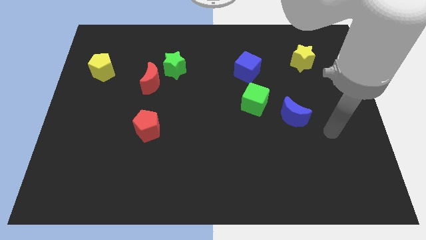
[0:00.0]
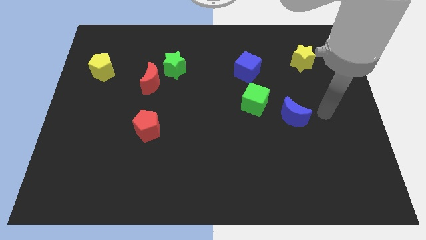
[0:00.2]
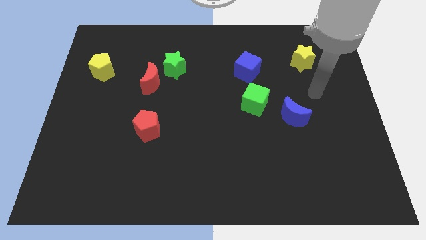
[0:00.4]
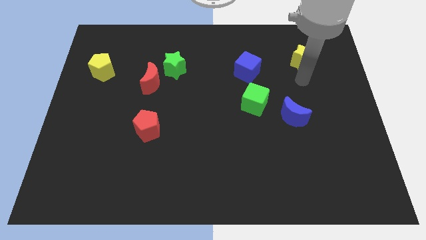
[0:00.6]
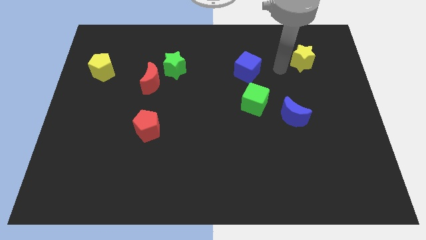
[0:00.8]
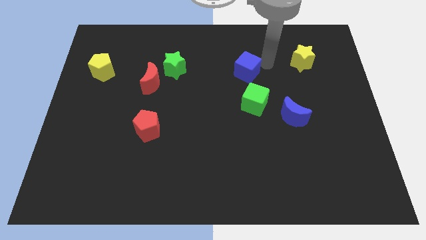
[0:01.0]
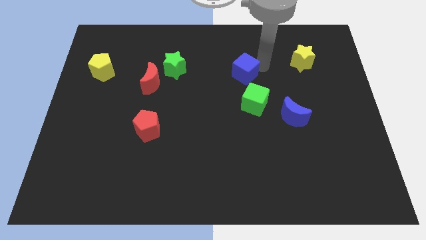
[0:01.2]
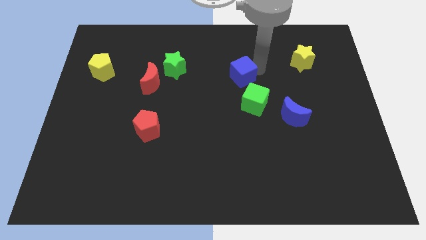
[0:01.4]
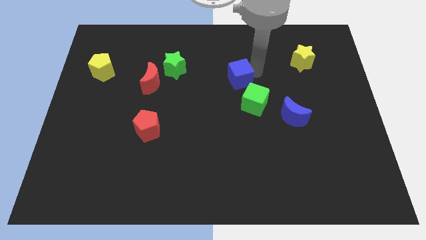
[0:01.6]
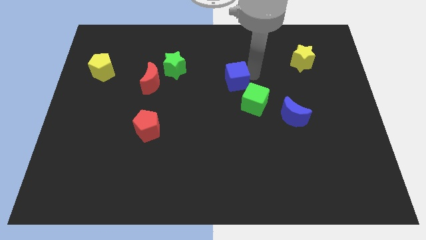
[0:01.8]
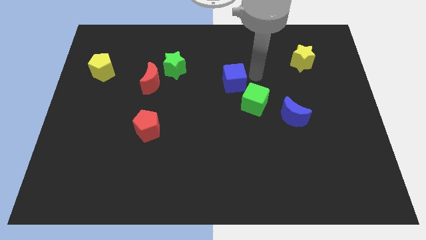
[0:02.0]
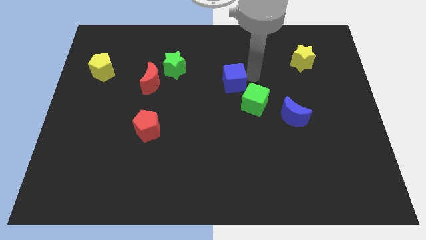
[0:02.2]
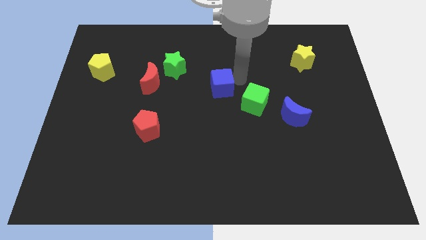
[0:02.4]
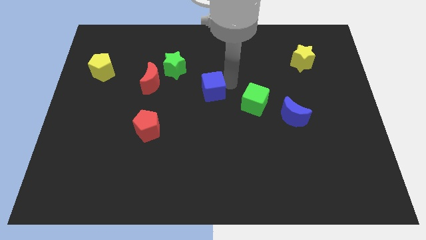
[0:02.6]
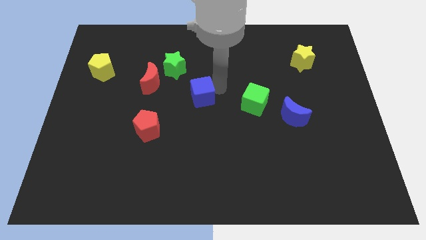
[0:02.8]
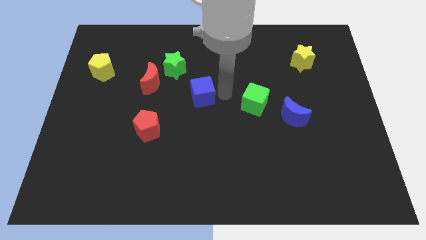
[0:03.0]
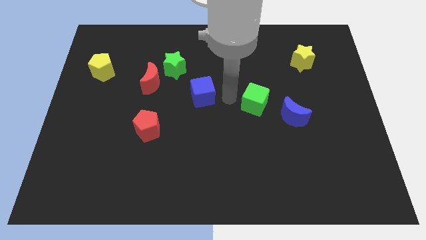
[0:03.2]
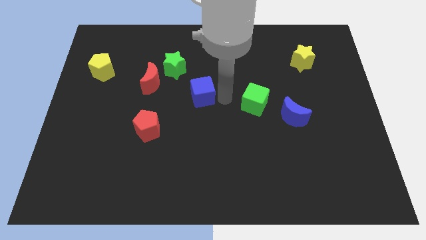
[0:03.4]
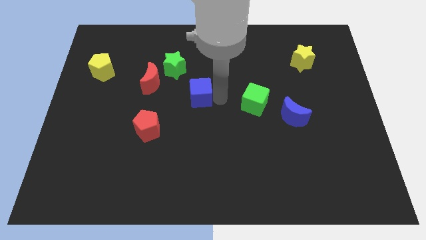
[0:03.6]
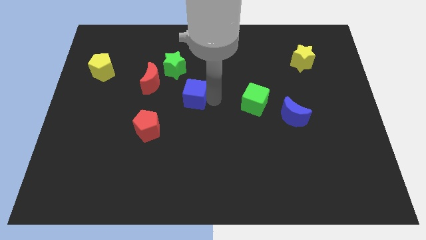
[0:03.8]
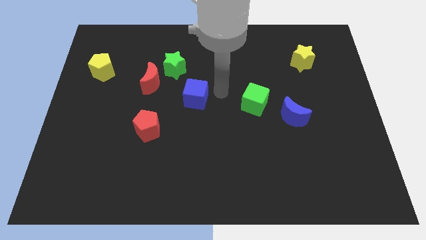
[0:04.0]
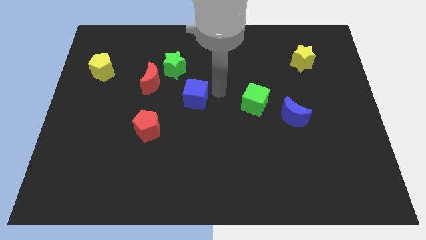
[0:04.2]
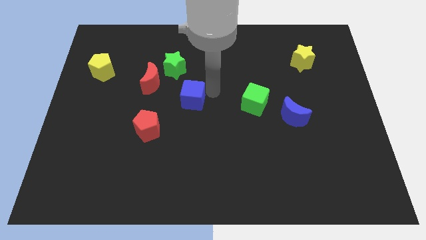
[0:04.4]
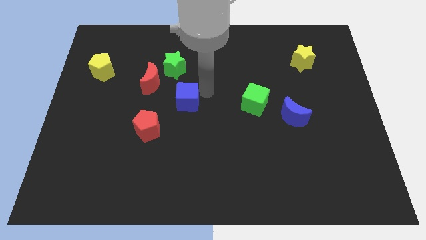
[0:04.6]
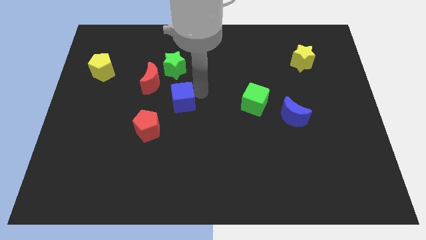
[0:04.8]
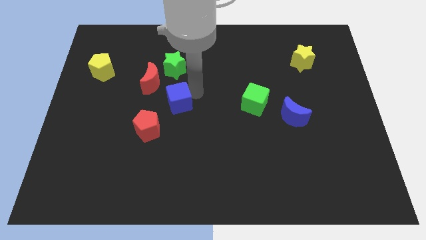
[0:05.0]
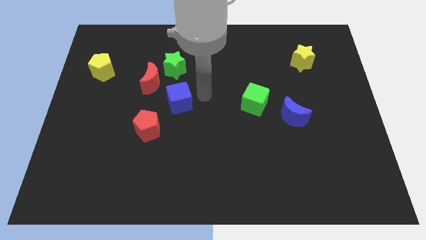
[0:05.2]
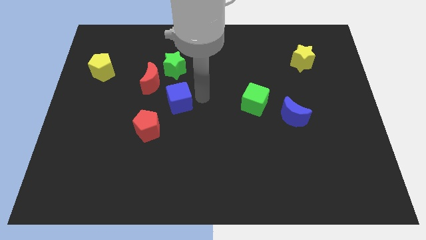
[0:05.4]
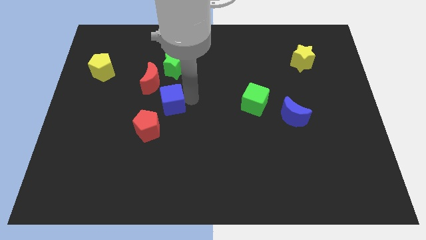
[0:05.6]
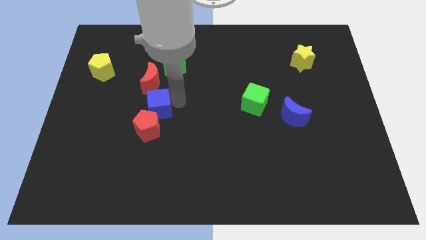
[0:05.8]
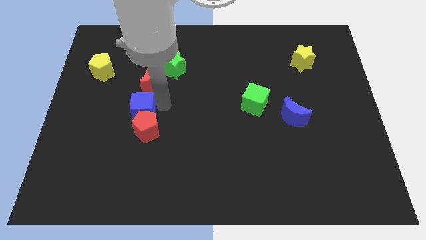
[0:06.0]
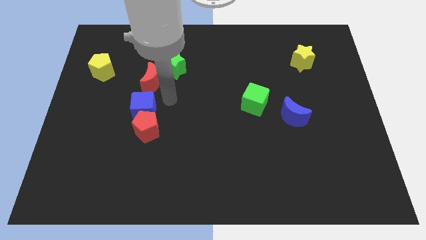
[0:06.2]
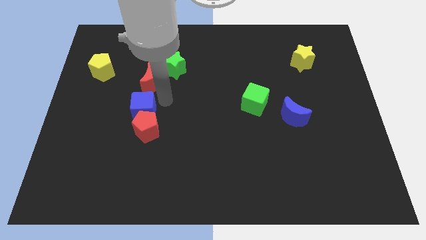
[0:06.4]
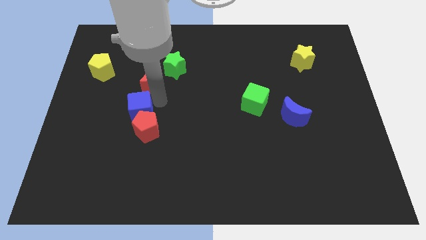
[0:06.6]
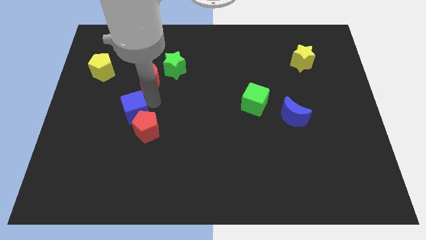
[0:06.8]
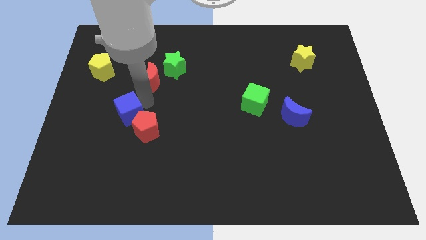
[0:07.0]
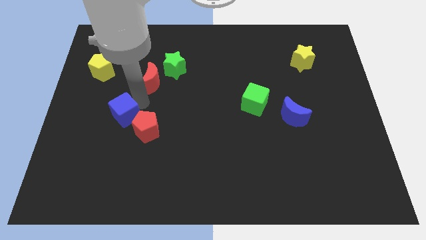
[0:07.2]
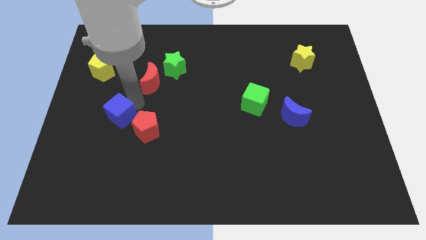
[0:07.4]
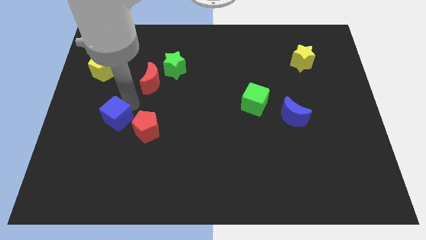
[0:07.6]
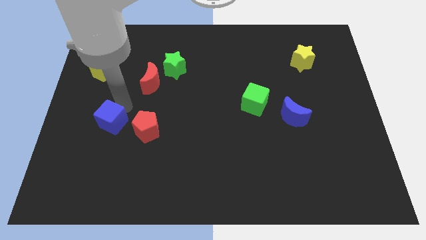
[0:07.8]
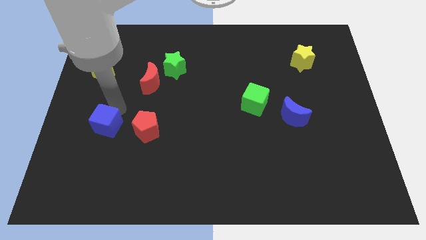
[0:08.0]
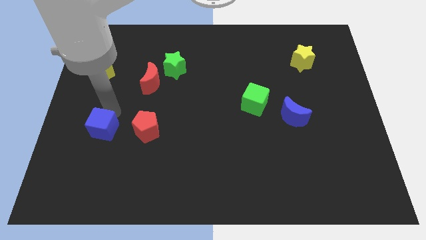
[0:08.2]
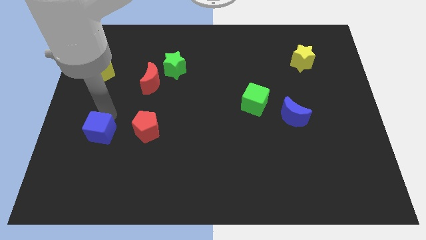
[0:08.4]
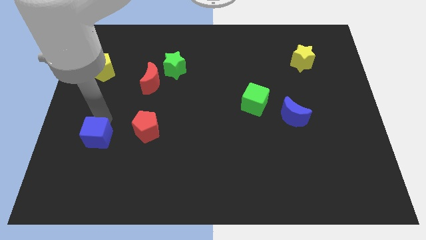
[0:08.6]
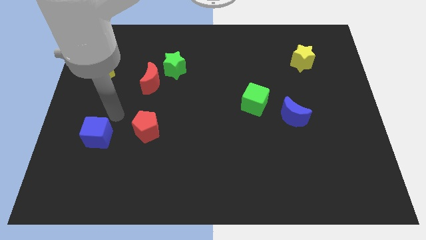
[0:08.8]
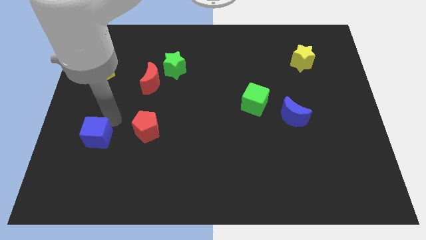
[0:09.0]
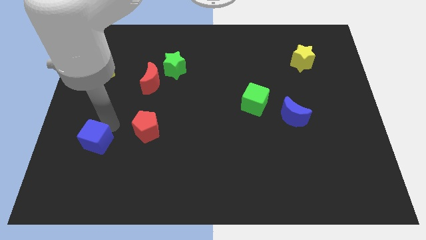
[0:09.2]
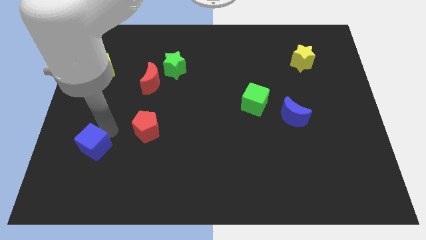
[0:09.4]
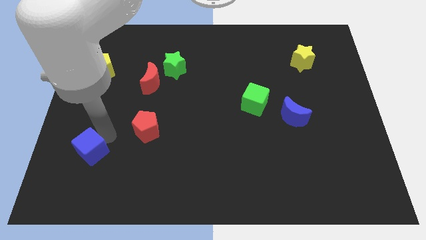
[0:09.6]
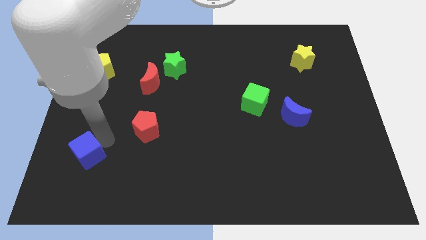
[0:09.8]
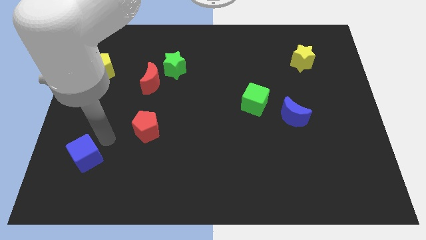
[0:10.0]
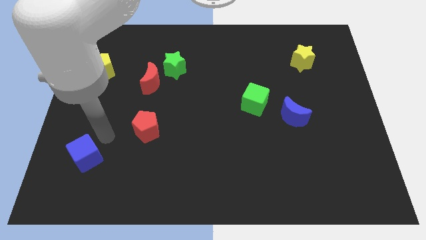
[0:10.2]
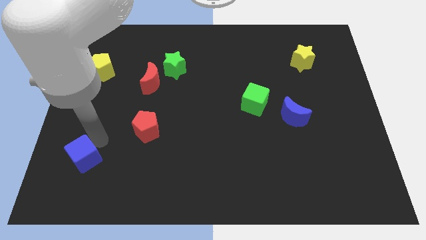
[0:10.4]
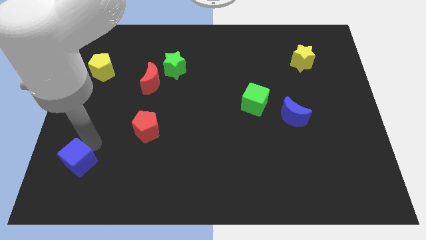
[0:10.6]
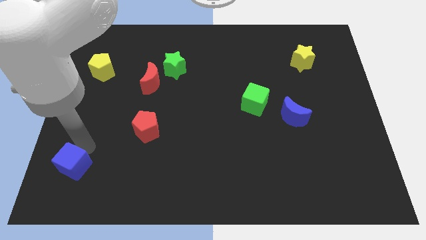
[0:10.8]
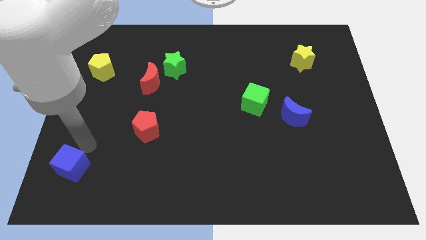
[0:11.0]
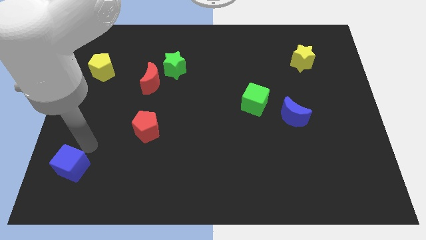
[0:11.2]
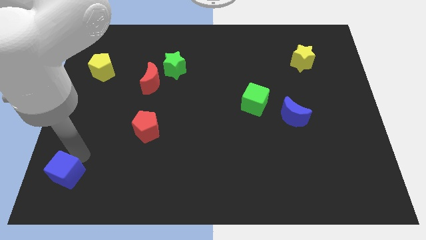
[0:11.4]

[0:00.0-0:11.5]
put the blue cube to the lower left corner

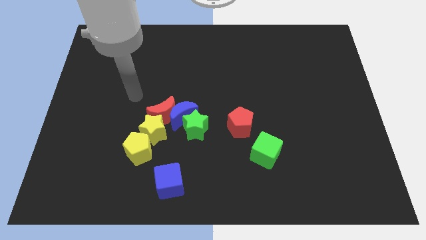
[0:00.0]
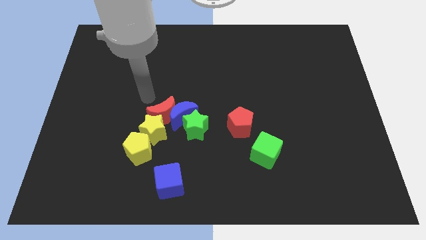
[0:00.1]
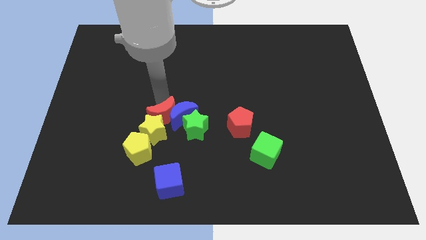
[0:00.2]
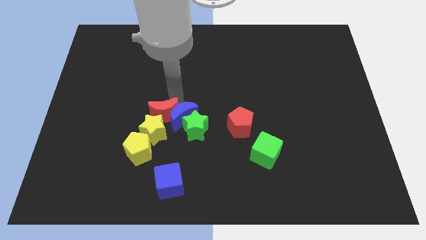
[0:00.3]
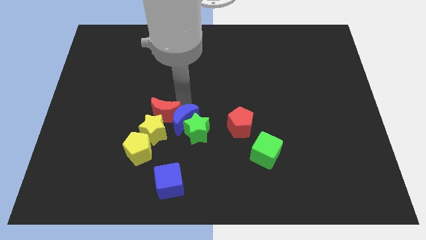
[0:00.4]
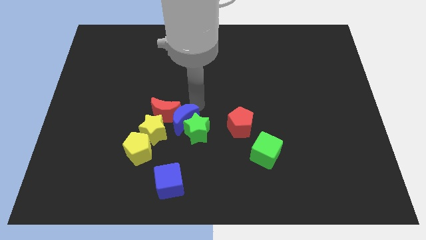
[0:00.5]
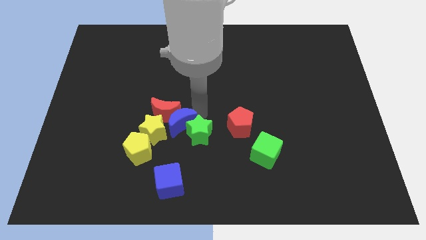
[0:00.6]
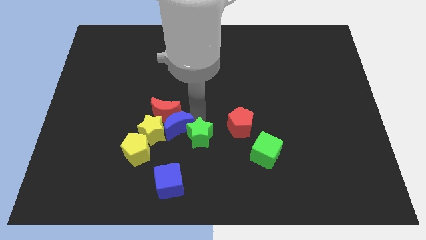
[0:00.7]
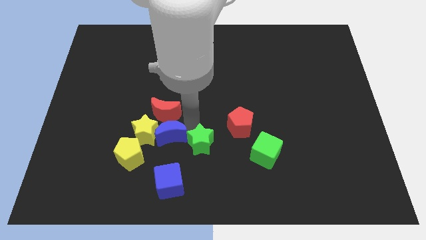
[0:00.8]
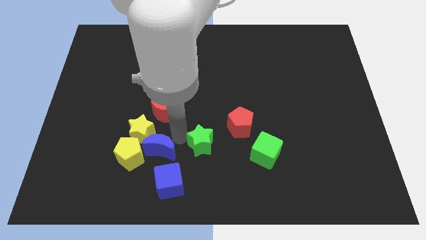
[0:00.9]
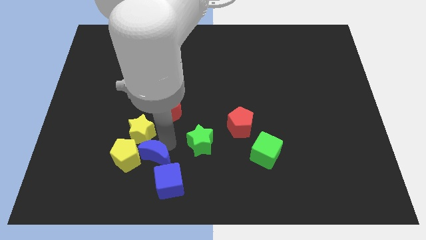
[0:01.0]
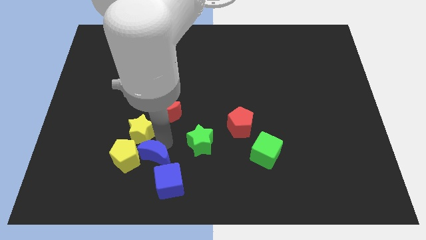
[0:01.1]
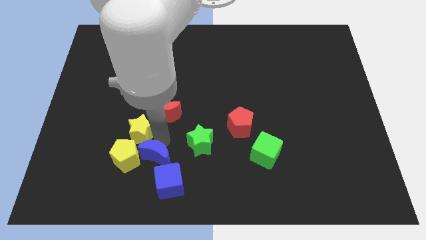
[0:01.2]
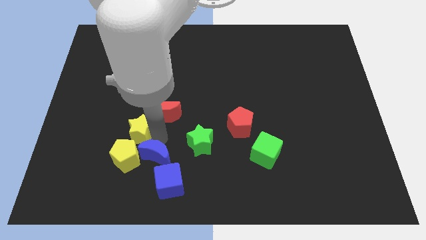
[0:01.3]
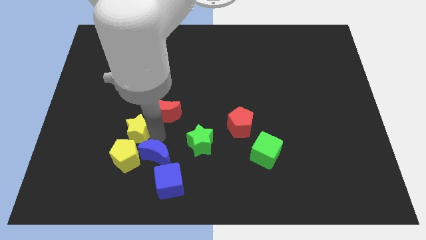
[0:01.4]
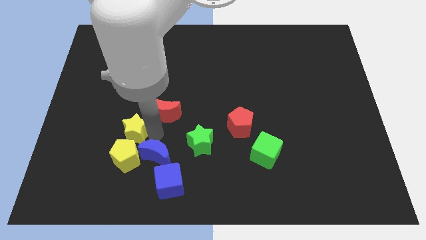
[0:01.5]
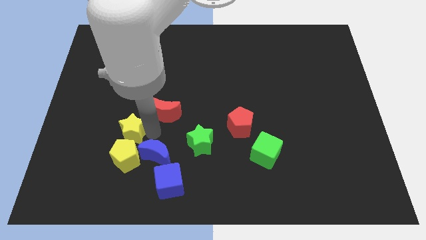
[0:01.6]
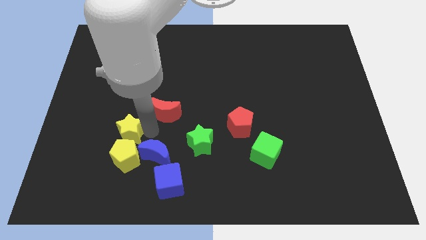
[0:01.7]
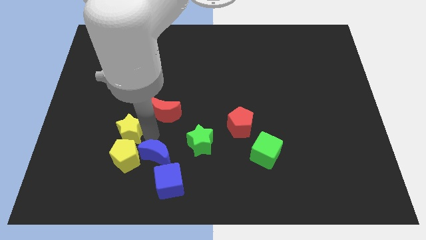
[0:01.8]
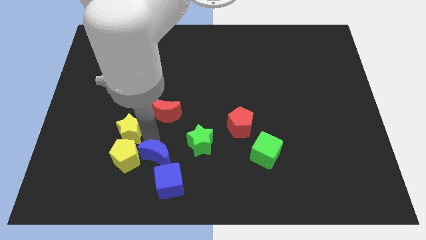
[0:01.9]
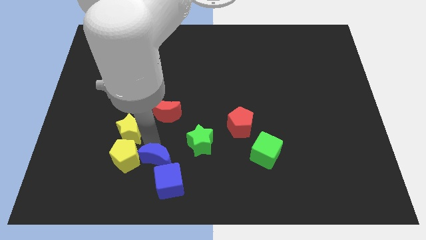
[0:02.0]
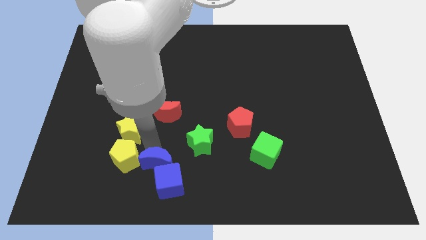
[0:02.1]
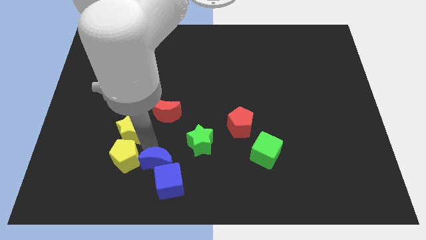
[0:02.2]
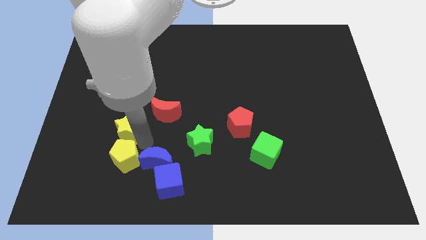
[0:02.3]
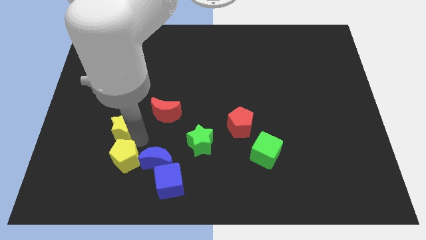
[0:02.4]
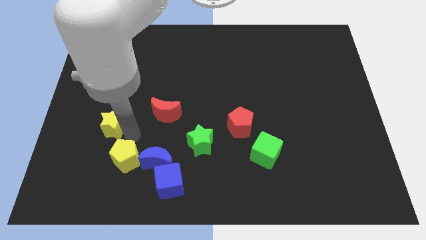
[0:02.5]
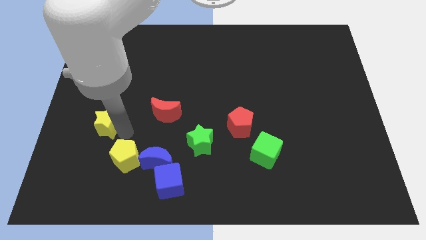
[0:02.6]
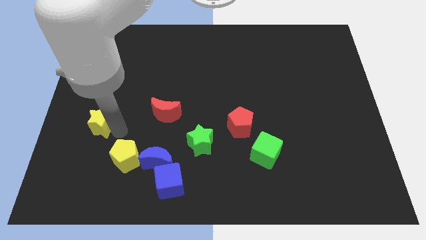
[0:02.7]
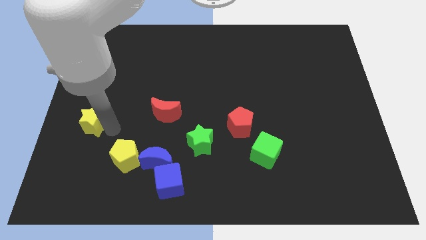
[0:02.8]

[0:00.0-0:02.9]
move the yellow star to the left side of the board
